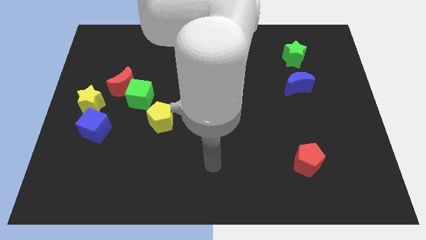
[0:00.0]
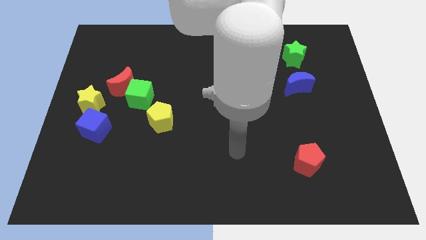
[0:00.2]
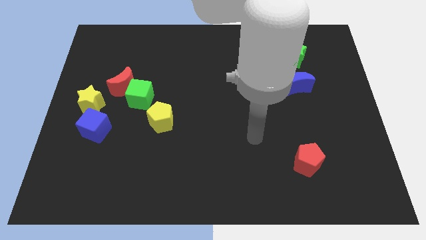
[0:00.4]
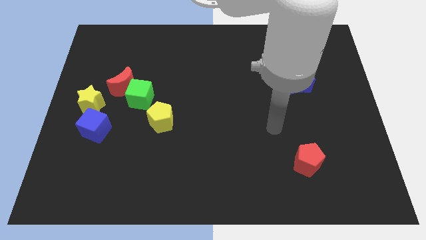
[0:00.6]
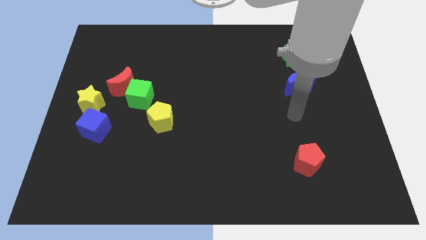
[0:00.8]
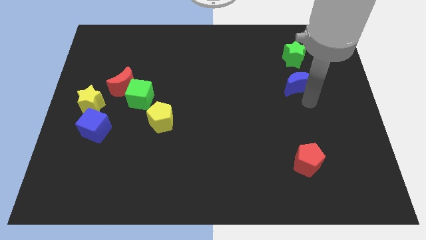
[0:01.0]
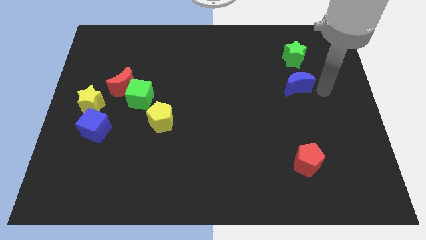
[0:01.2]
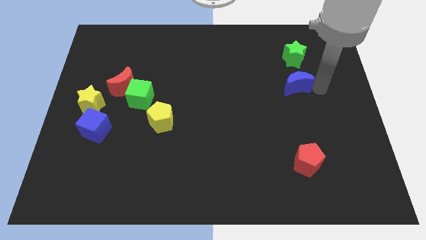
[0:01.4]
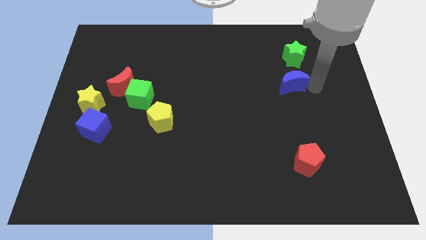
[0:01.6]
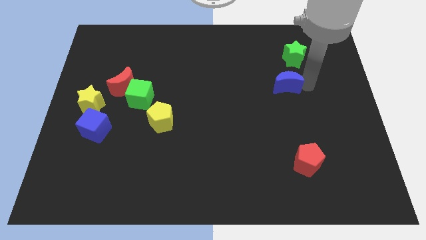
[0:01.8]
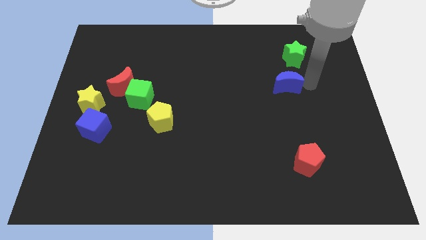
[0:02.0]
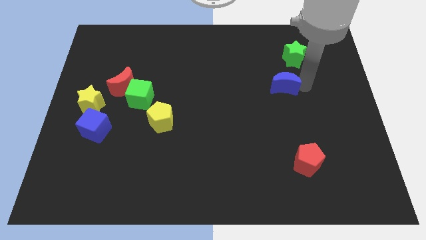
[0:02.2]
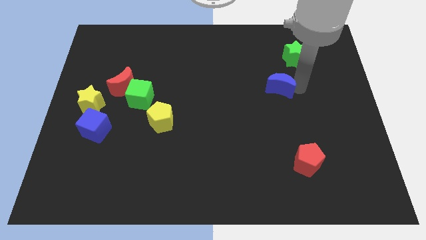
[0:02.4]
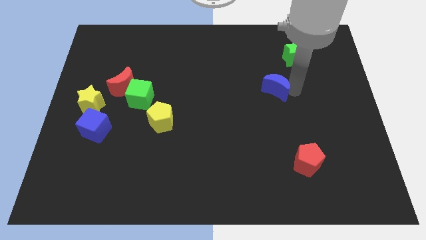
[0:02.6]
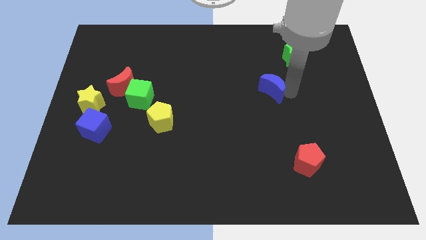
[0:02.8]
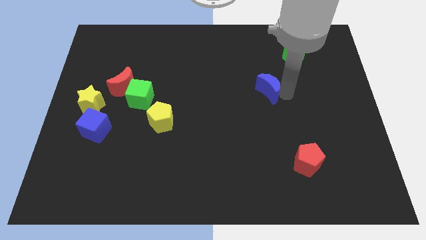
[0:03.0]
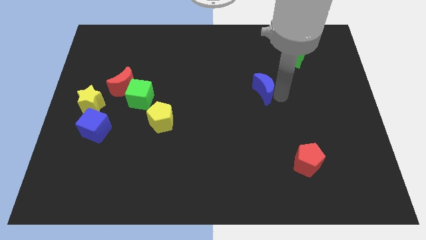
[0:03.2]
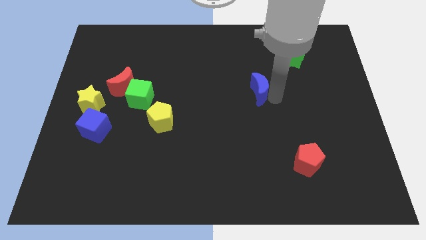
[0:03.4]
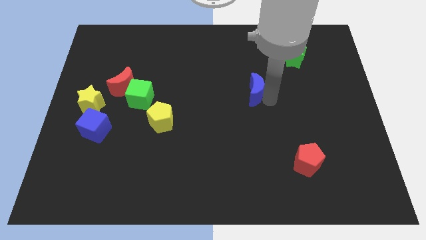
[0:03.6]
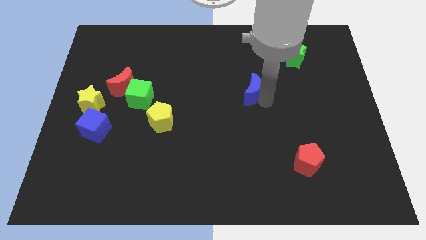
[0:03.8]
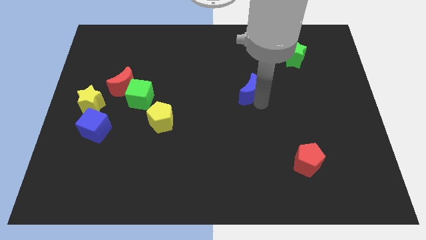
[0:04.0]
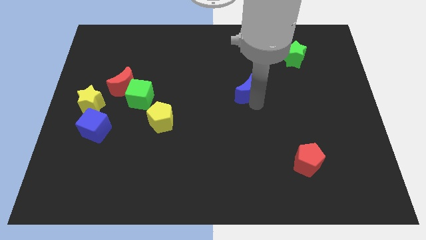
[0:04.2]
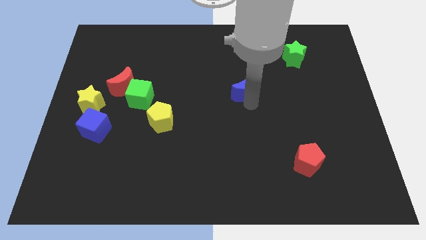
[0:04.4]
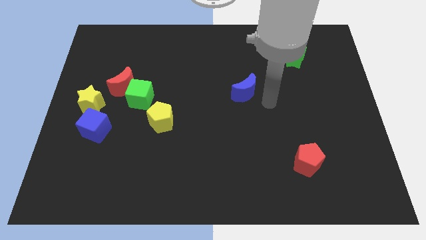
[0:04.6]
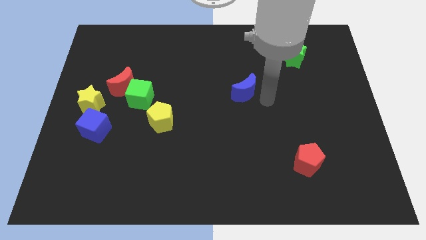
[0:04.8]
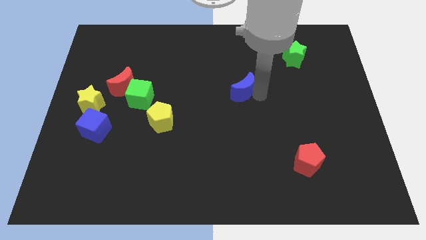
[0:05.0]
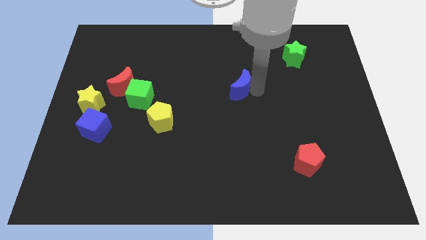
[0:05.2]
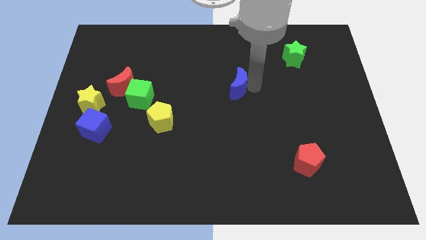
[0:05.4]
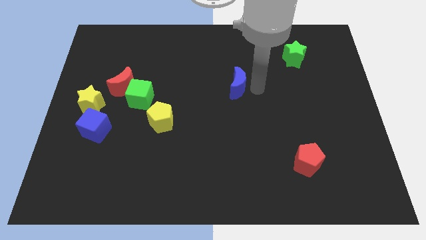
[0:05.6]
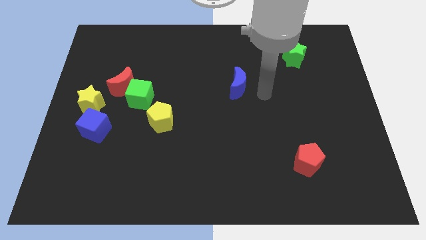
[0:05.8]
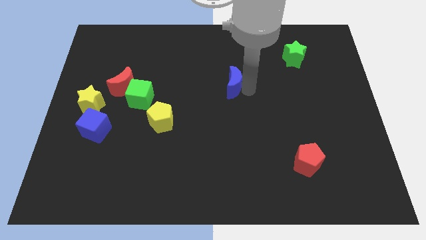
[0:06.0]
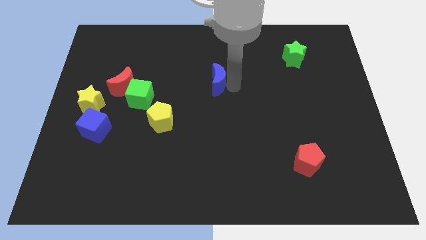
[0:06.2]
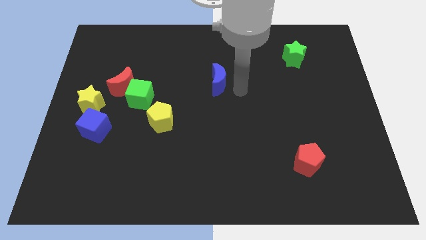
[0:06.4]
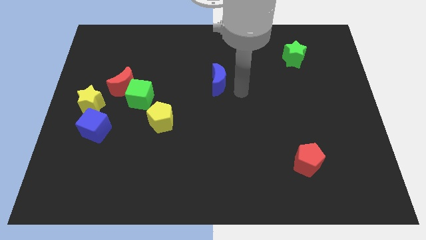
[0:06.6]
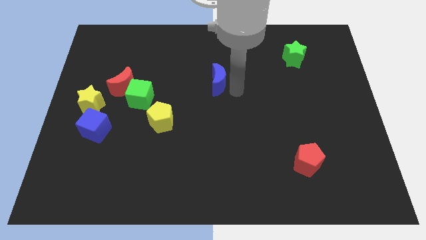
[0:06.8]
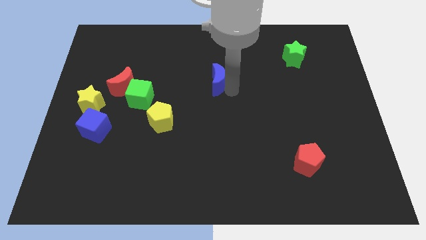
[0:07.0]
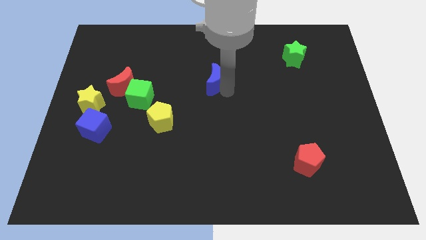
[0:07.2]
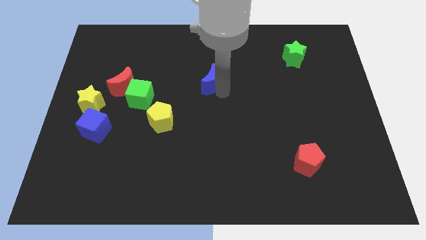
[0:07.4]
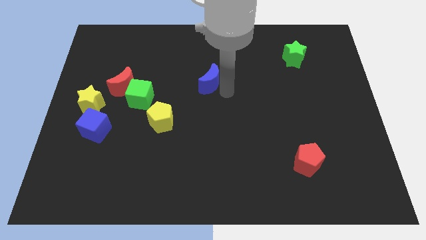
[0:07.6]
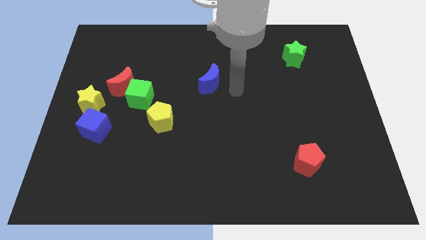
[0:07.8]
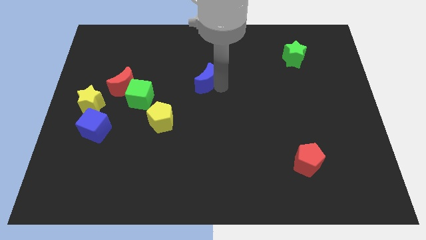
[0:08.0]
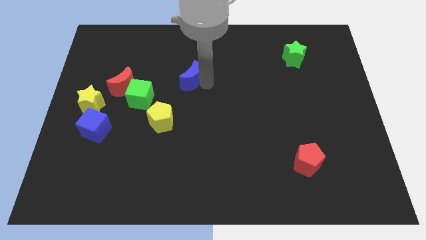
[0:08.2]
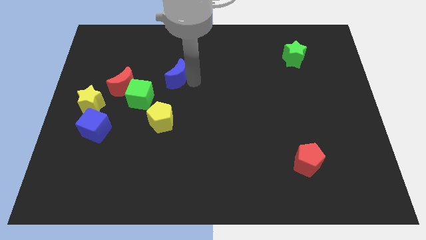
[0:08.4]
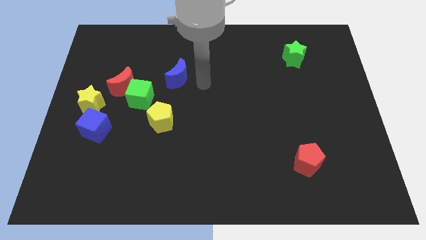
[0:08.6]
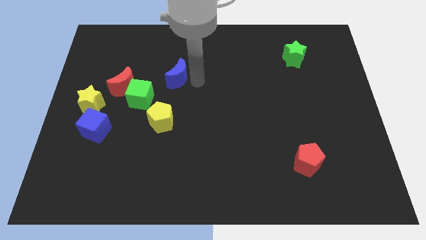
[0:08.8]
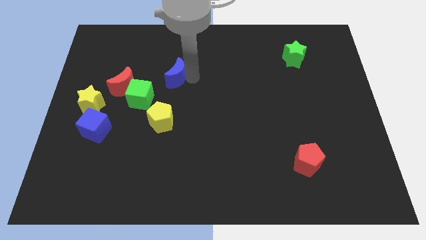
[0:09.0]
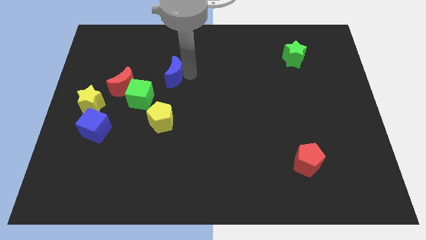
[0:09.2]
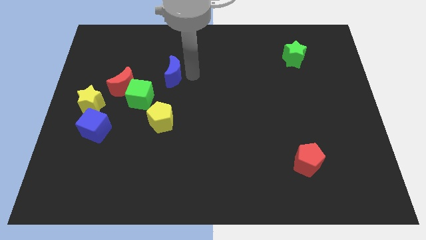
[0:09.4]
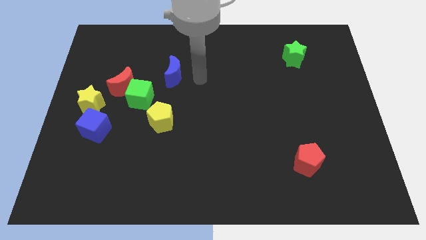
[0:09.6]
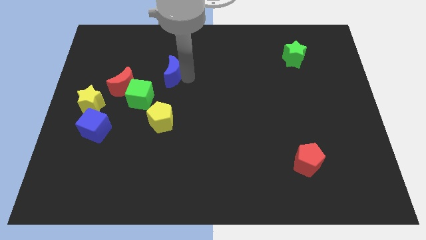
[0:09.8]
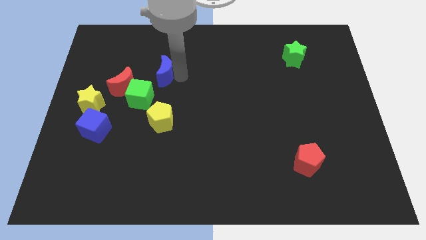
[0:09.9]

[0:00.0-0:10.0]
move the blue moon diagonally up and to the right of the red moon

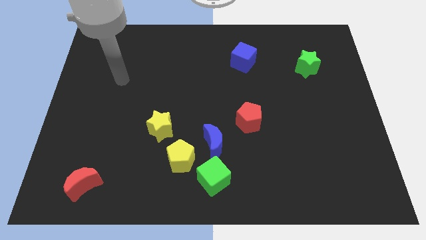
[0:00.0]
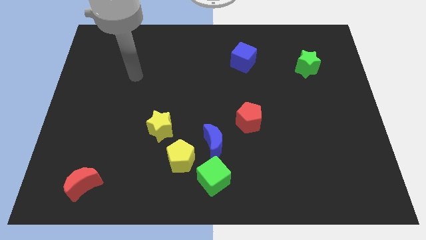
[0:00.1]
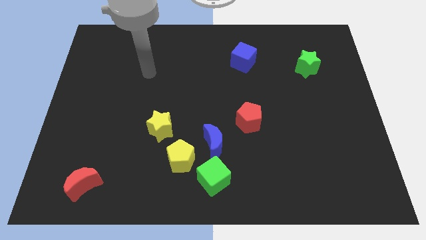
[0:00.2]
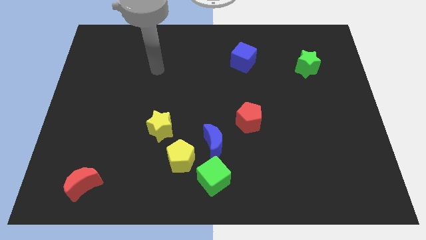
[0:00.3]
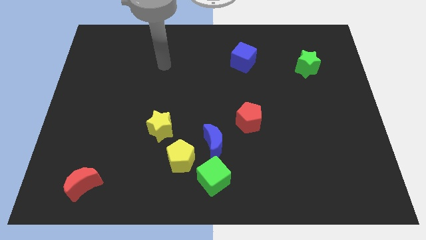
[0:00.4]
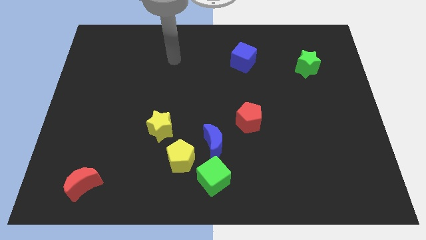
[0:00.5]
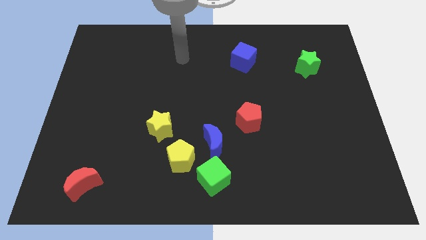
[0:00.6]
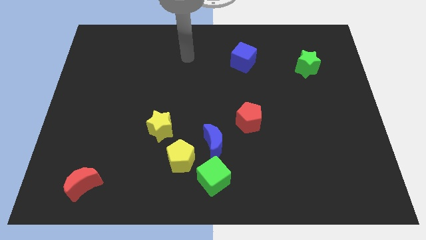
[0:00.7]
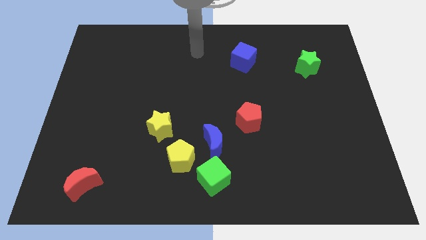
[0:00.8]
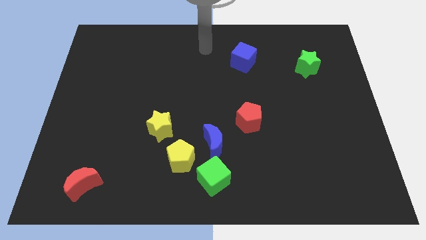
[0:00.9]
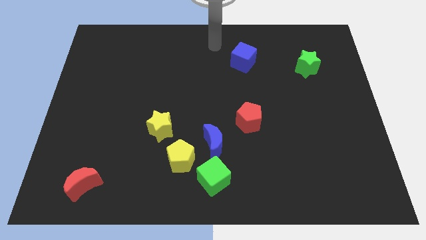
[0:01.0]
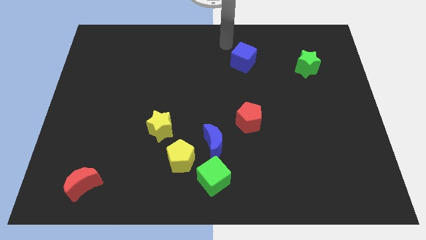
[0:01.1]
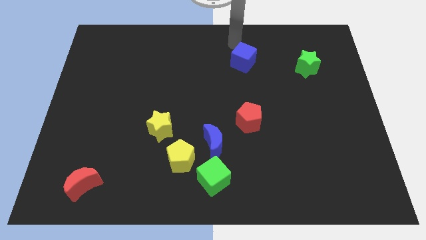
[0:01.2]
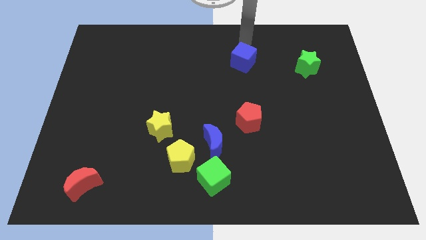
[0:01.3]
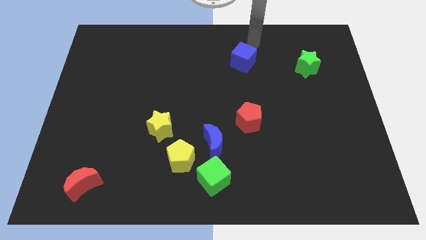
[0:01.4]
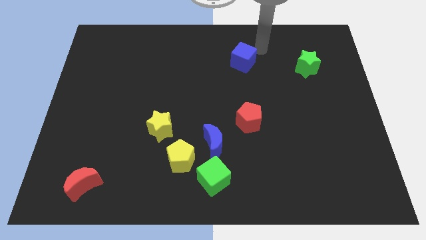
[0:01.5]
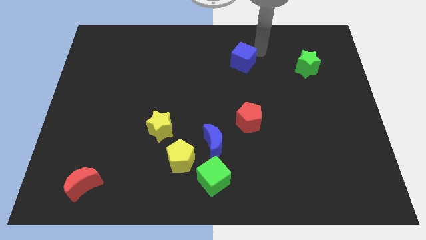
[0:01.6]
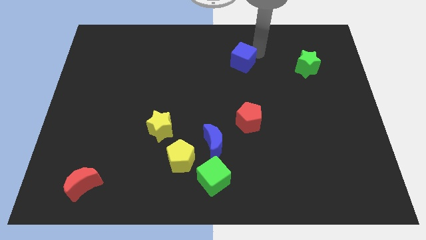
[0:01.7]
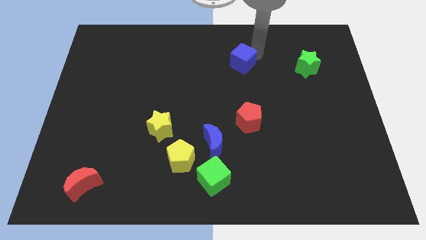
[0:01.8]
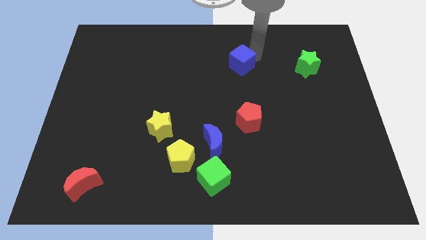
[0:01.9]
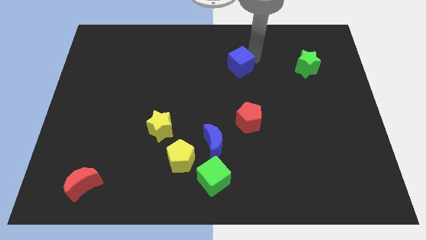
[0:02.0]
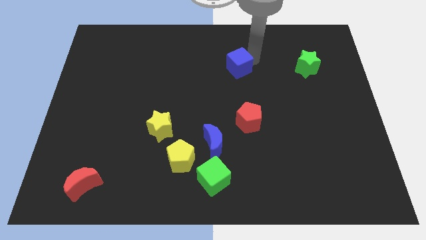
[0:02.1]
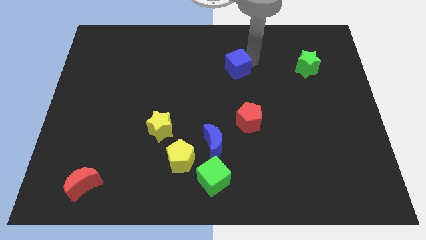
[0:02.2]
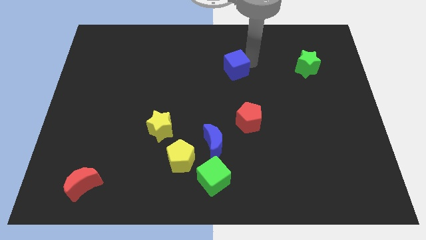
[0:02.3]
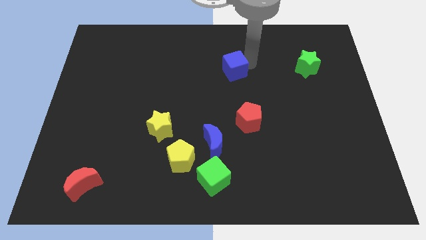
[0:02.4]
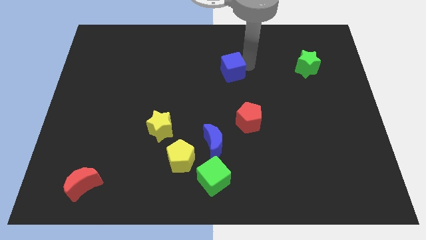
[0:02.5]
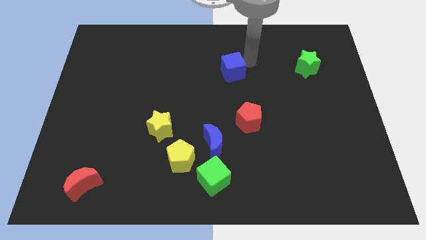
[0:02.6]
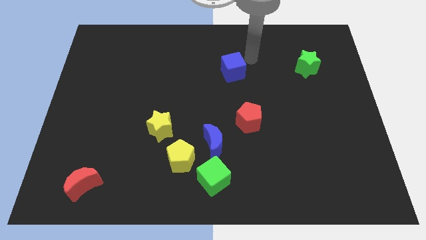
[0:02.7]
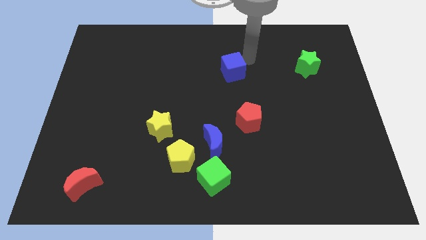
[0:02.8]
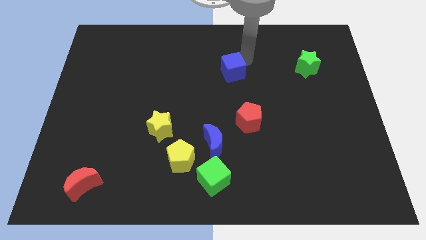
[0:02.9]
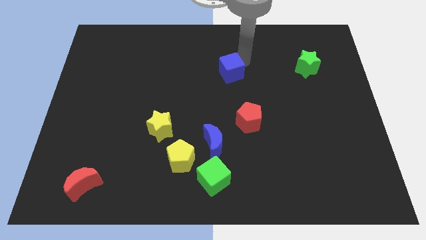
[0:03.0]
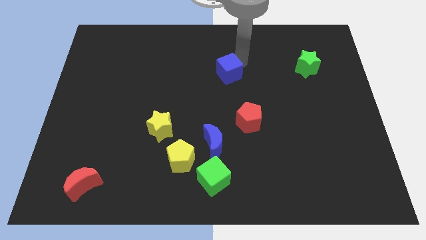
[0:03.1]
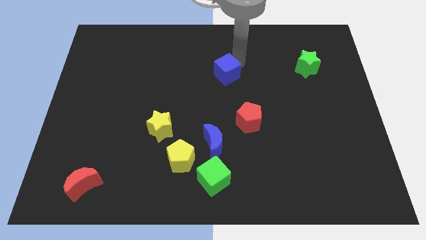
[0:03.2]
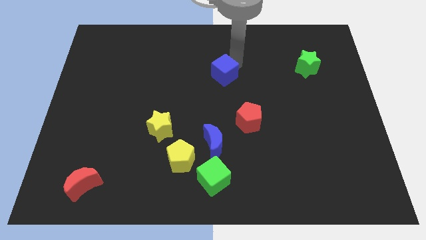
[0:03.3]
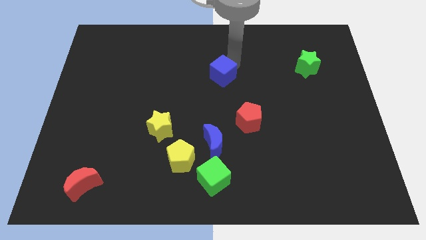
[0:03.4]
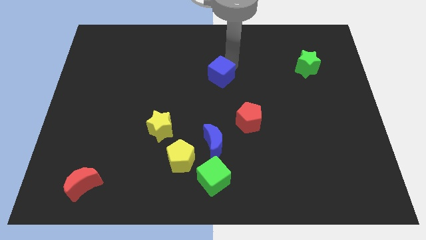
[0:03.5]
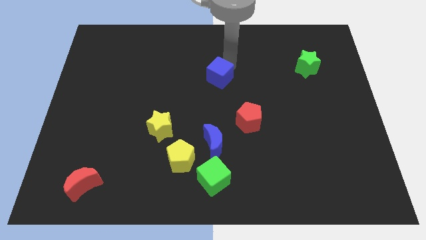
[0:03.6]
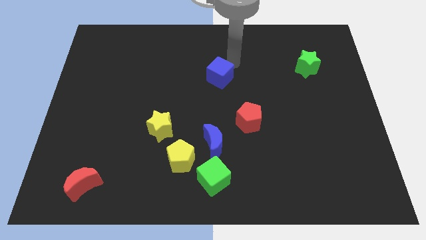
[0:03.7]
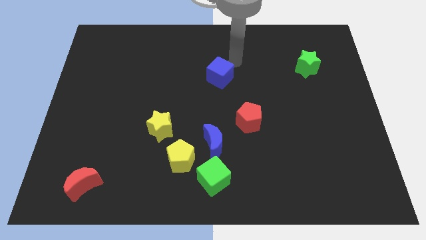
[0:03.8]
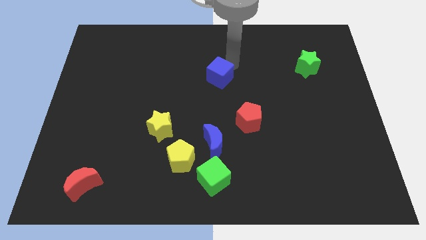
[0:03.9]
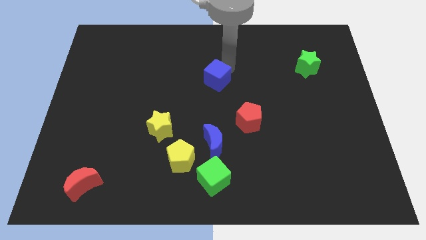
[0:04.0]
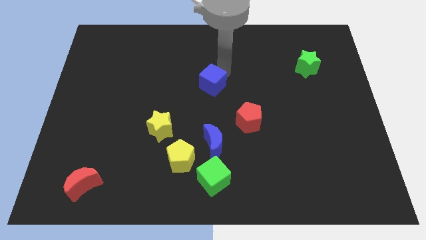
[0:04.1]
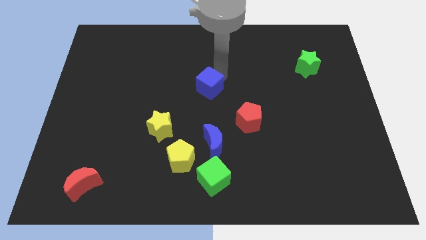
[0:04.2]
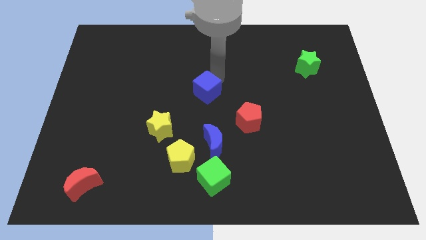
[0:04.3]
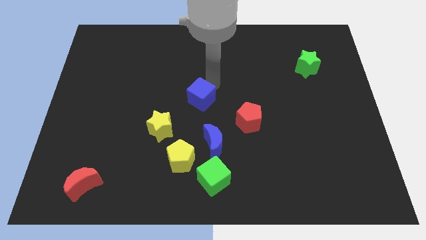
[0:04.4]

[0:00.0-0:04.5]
move the blue cube to the top right of the yellow star
